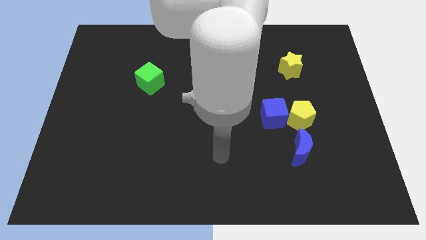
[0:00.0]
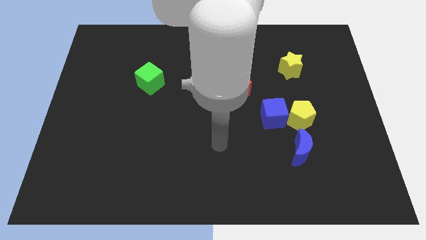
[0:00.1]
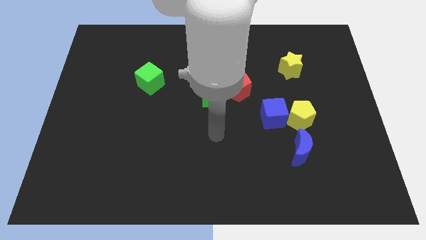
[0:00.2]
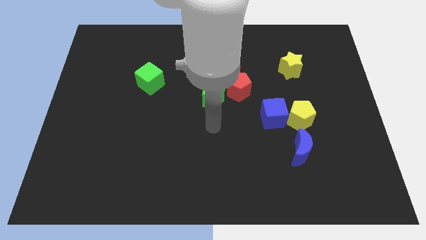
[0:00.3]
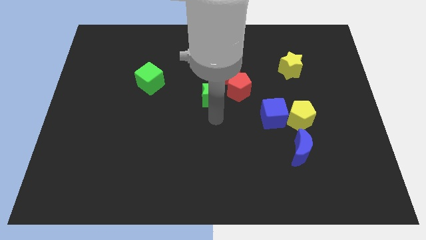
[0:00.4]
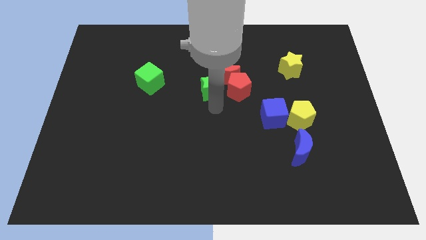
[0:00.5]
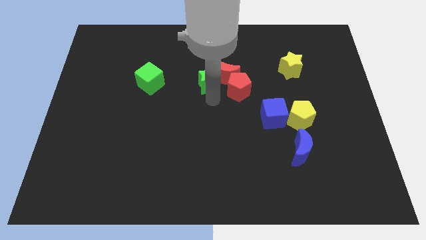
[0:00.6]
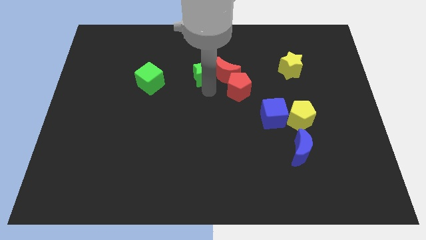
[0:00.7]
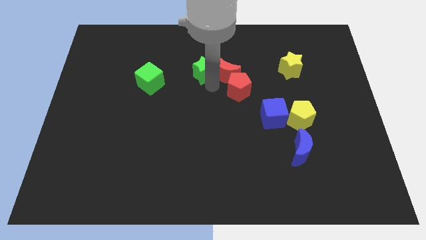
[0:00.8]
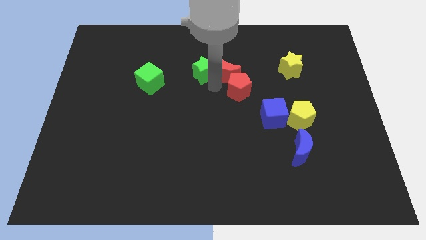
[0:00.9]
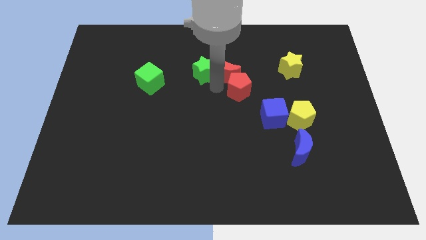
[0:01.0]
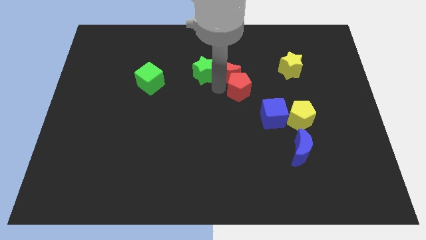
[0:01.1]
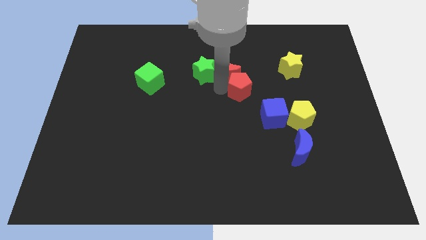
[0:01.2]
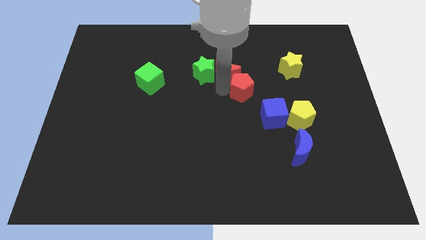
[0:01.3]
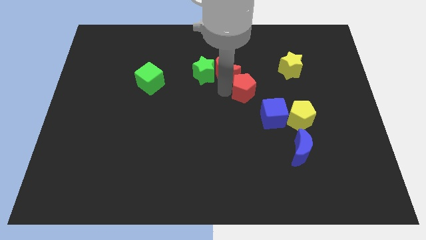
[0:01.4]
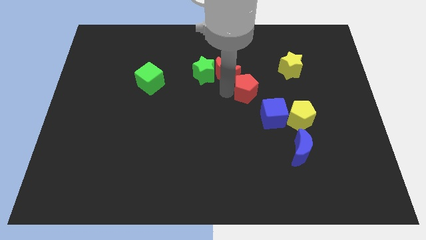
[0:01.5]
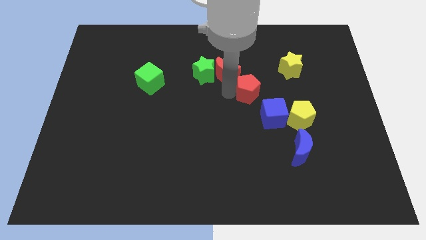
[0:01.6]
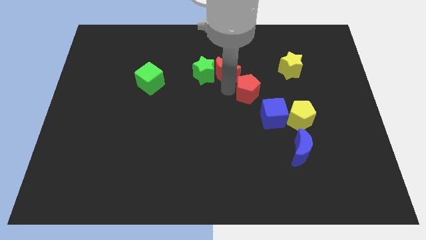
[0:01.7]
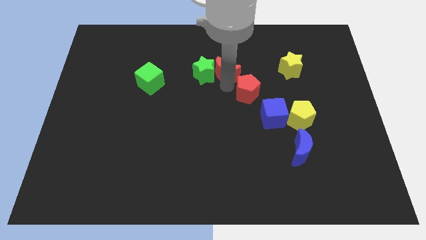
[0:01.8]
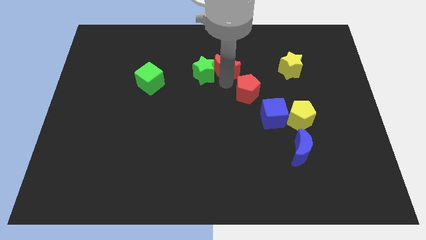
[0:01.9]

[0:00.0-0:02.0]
separate the red pentagon from the red moon and green star

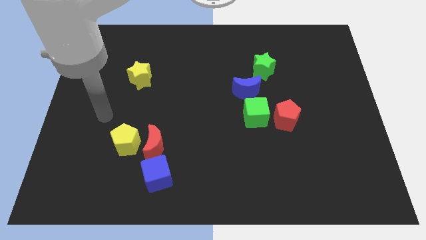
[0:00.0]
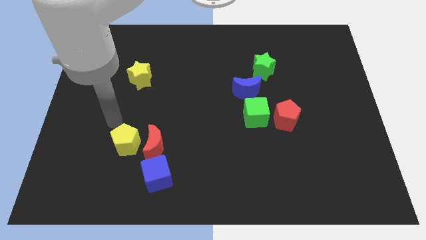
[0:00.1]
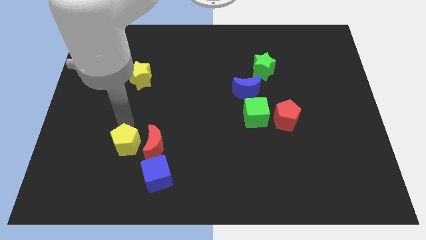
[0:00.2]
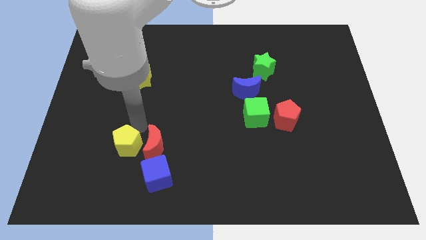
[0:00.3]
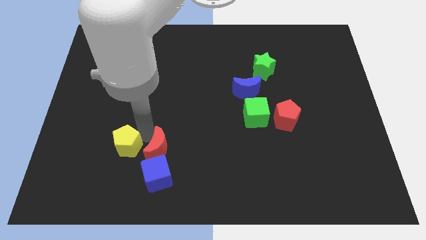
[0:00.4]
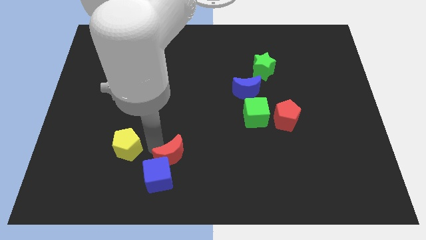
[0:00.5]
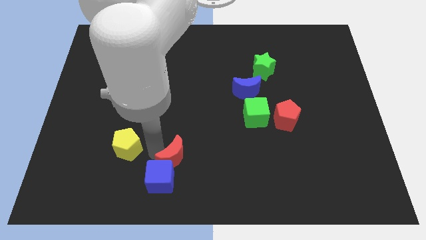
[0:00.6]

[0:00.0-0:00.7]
separate the yellow pentagon from the red moon

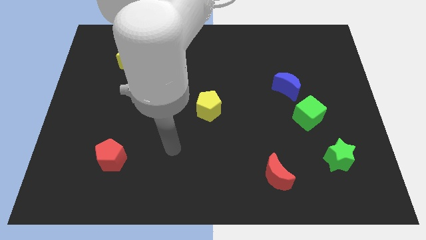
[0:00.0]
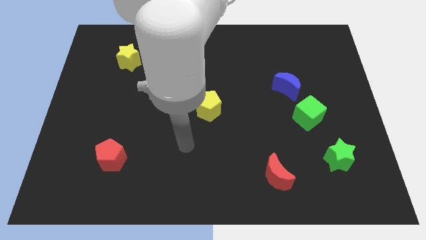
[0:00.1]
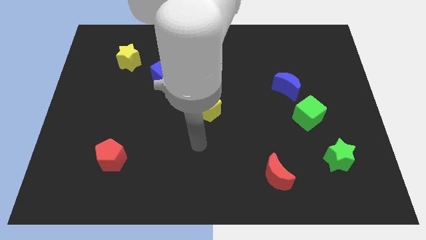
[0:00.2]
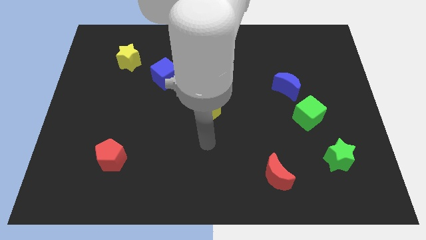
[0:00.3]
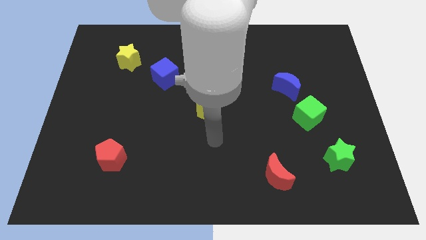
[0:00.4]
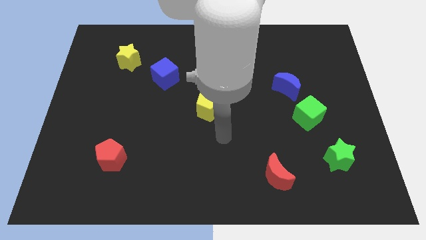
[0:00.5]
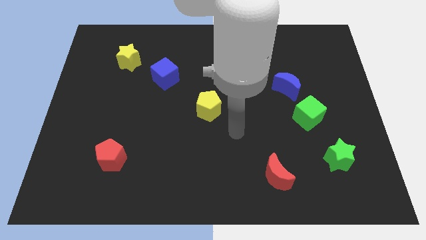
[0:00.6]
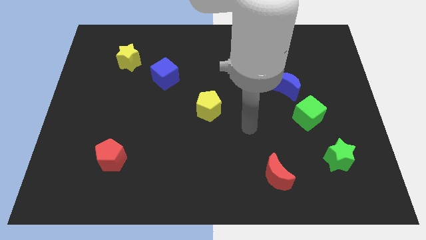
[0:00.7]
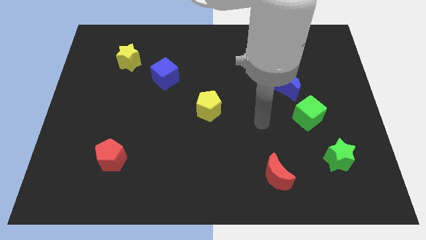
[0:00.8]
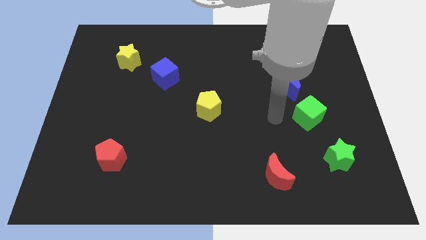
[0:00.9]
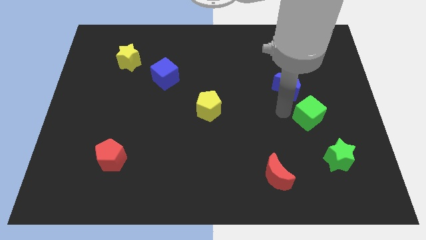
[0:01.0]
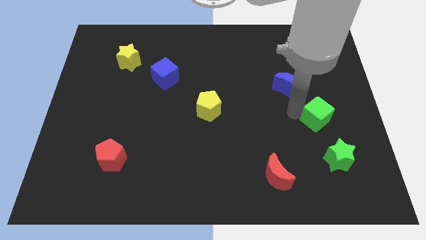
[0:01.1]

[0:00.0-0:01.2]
separate the blue moon from the green cube

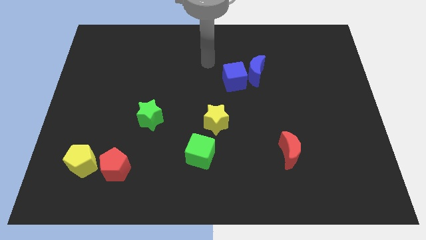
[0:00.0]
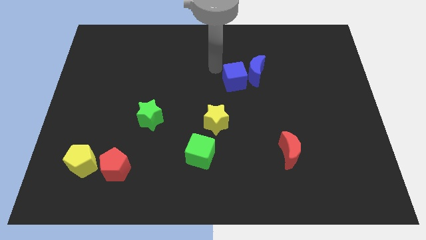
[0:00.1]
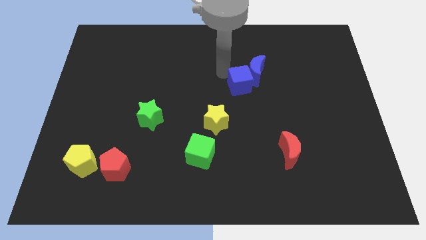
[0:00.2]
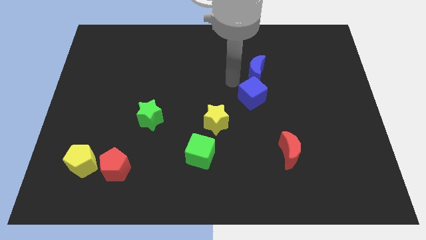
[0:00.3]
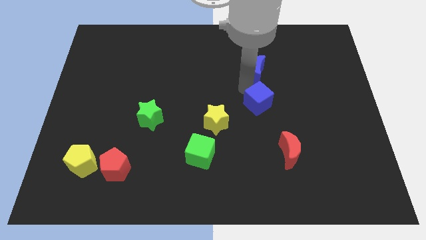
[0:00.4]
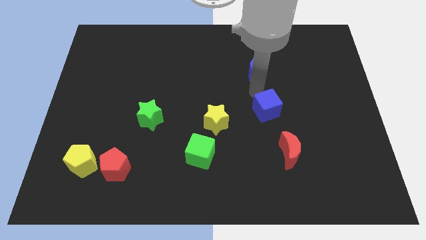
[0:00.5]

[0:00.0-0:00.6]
pull the blue moon apart from the blue cube

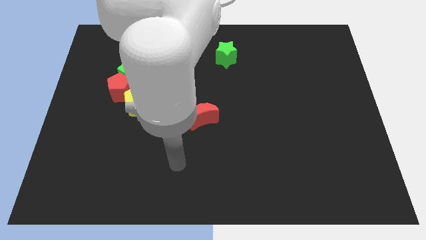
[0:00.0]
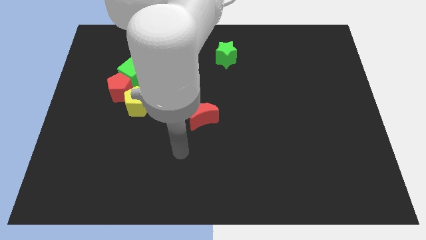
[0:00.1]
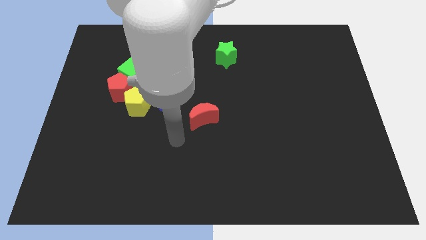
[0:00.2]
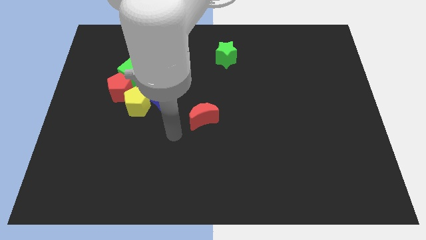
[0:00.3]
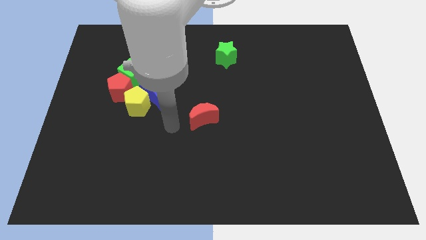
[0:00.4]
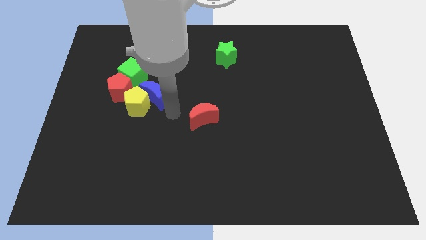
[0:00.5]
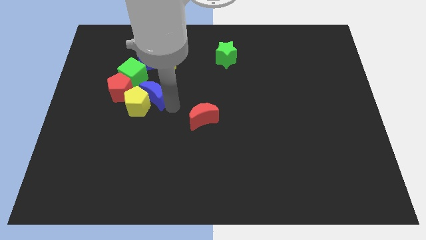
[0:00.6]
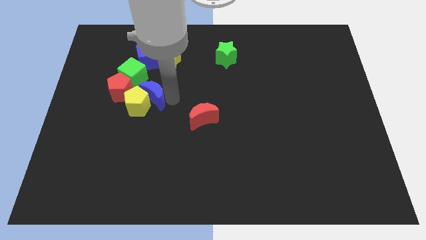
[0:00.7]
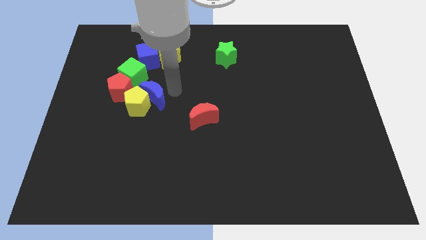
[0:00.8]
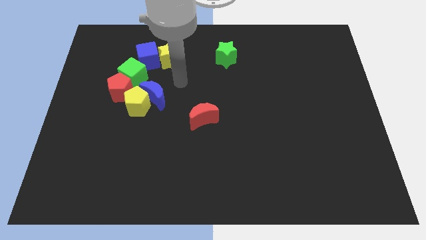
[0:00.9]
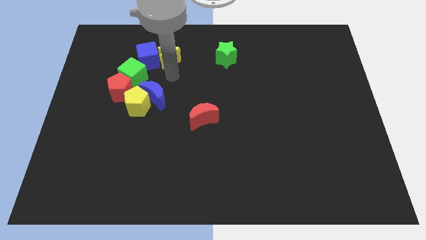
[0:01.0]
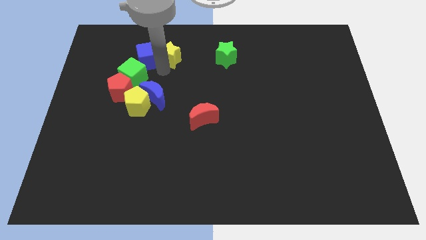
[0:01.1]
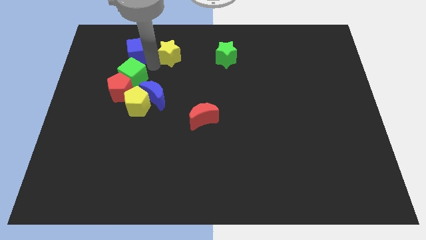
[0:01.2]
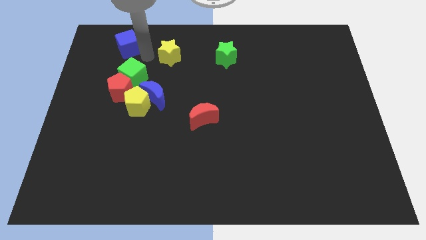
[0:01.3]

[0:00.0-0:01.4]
move the yellow star away from the blue cube

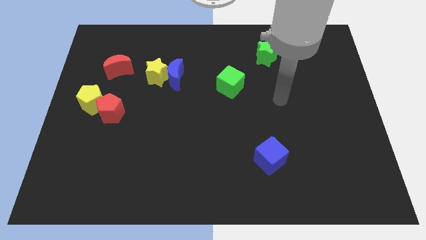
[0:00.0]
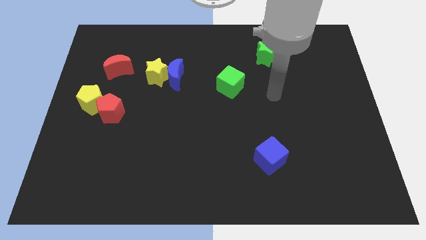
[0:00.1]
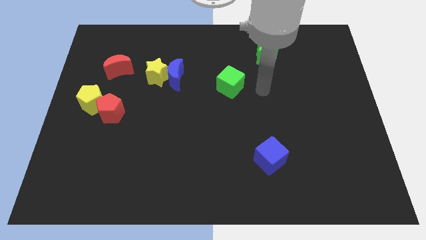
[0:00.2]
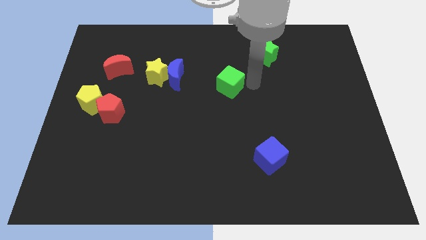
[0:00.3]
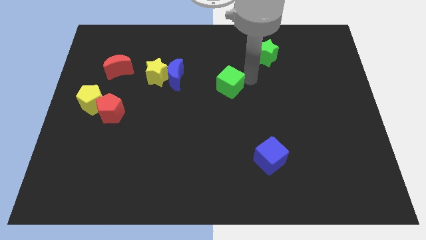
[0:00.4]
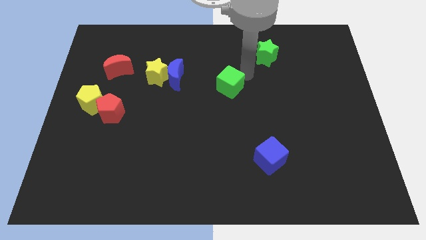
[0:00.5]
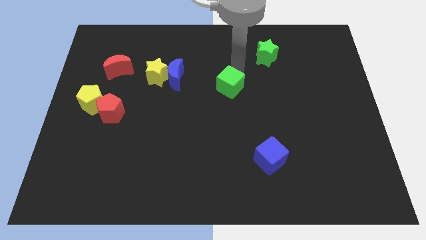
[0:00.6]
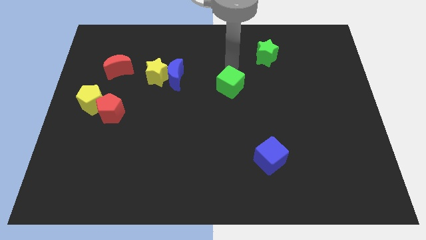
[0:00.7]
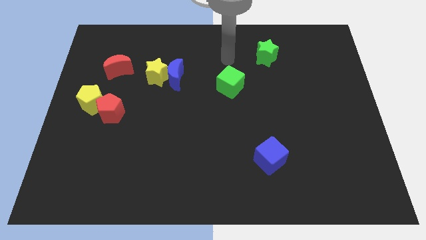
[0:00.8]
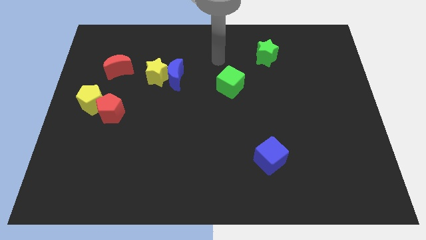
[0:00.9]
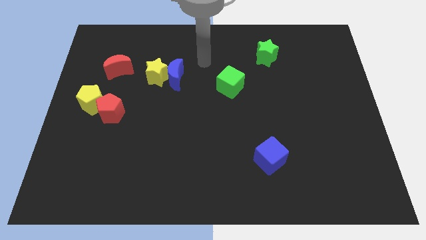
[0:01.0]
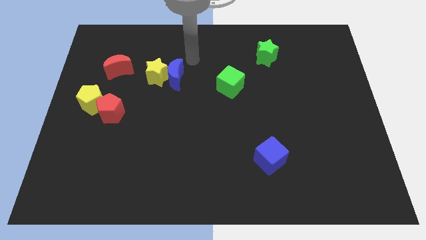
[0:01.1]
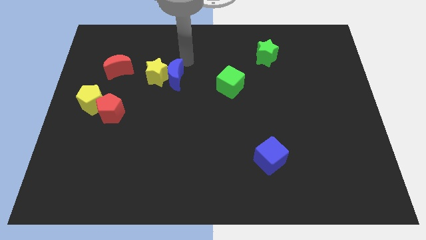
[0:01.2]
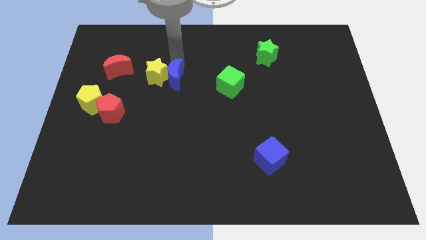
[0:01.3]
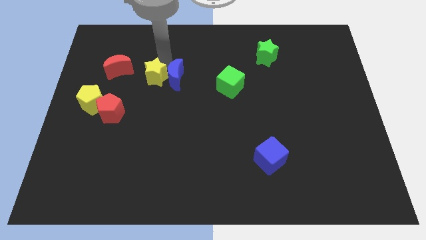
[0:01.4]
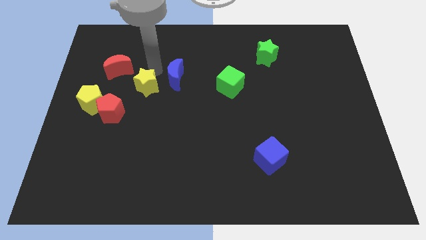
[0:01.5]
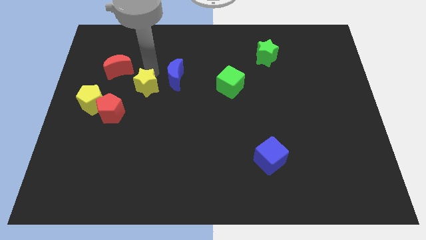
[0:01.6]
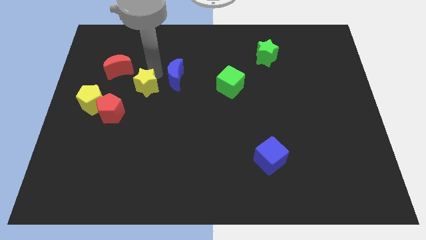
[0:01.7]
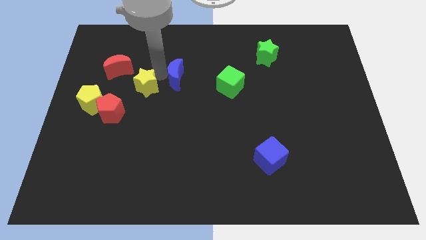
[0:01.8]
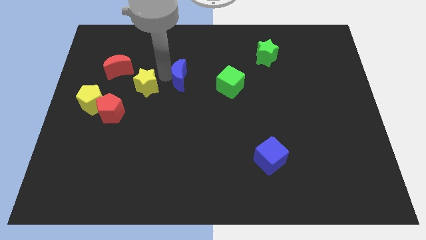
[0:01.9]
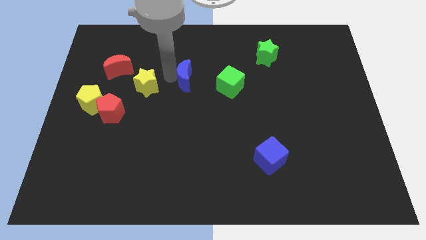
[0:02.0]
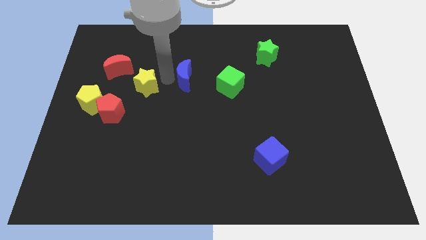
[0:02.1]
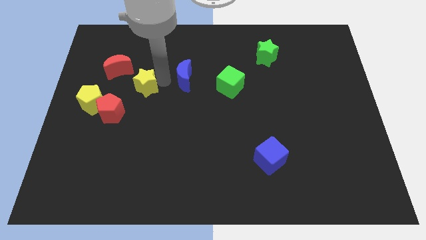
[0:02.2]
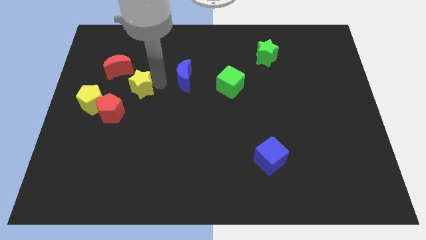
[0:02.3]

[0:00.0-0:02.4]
pull the blue moon apart from the yellow star

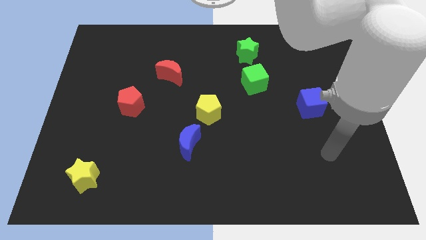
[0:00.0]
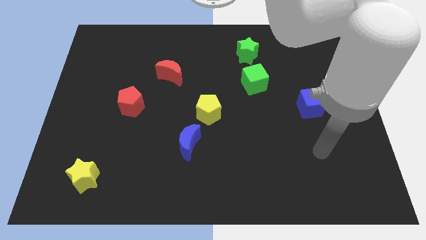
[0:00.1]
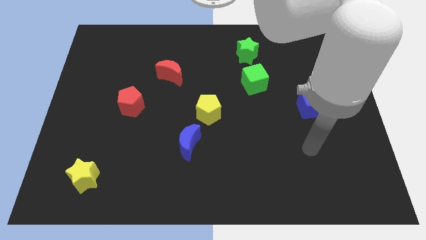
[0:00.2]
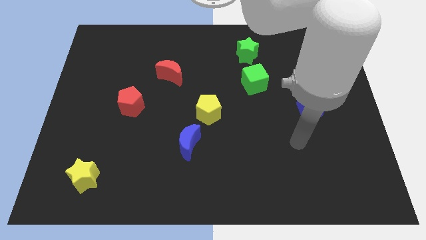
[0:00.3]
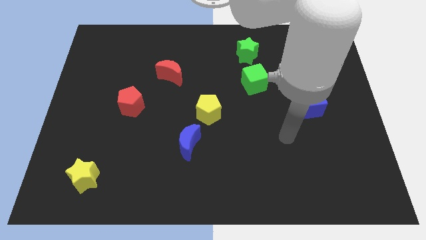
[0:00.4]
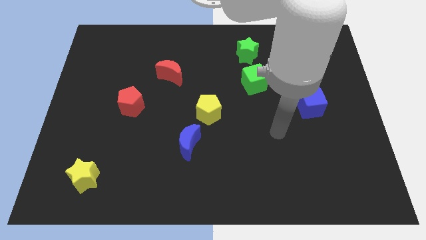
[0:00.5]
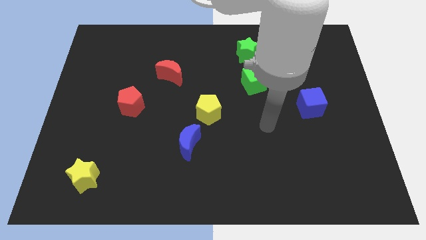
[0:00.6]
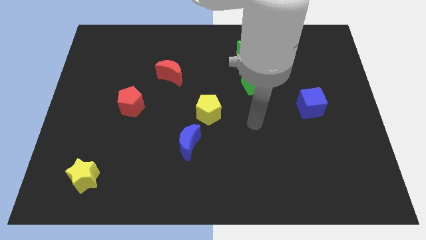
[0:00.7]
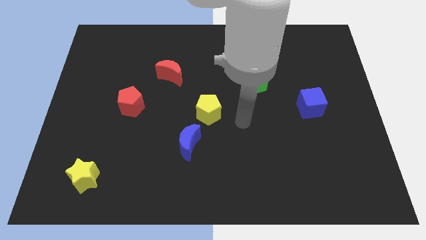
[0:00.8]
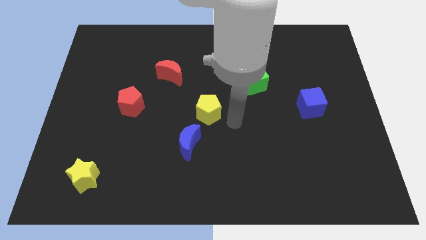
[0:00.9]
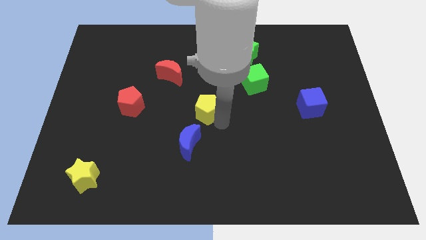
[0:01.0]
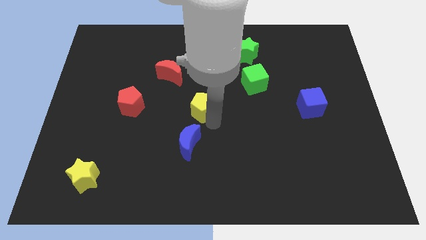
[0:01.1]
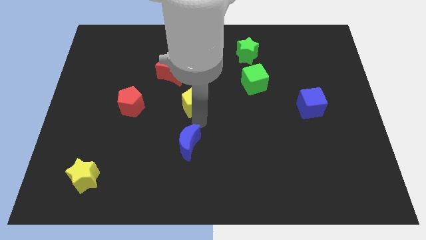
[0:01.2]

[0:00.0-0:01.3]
separate the blue moon from the yellow pentagon
